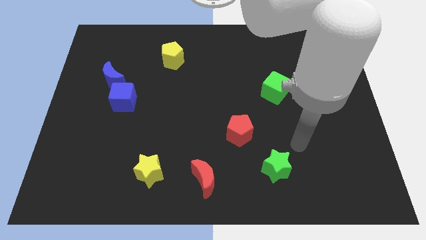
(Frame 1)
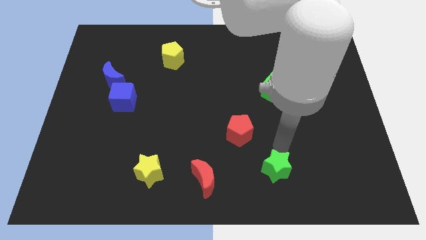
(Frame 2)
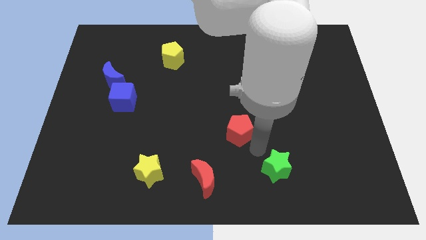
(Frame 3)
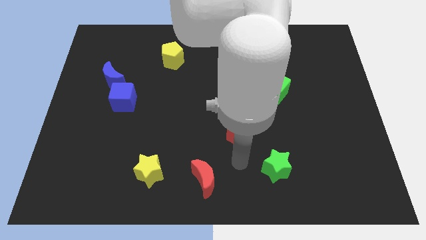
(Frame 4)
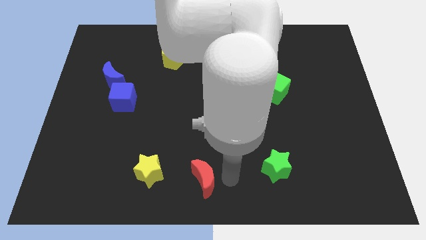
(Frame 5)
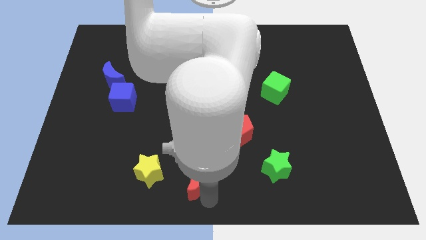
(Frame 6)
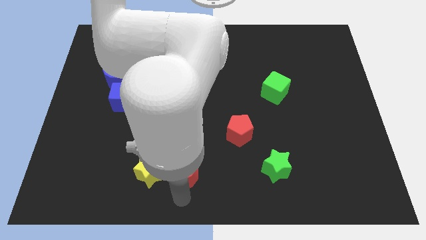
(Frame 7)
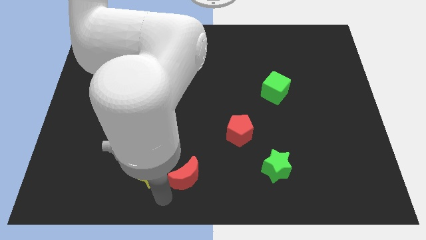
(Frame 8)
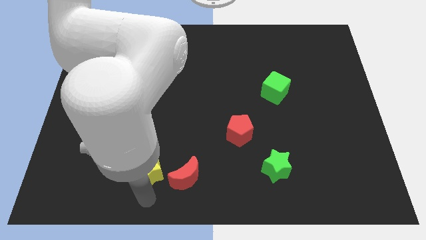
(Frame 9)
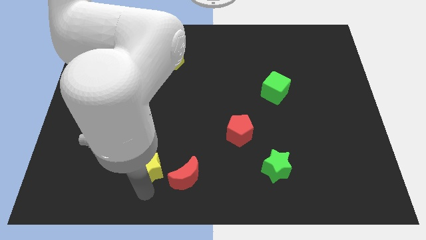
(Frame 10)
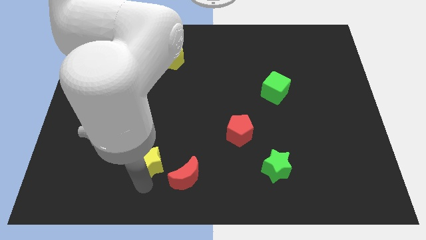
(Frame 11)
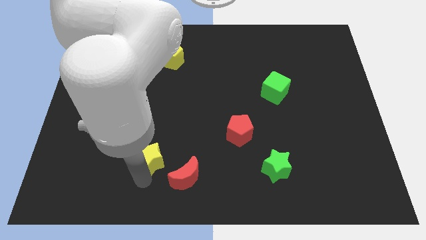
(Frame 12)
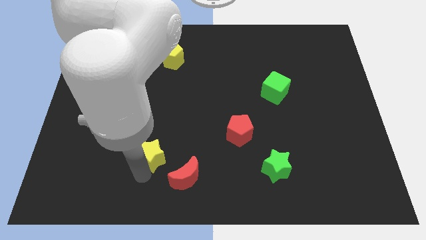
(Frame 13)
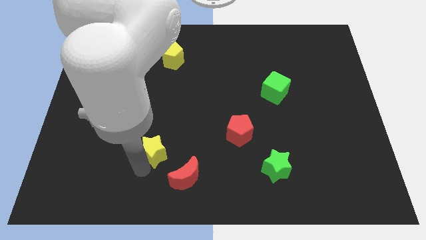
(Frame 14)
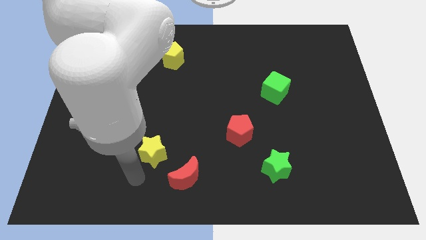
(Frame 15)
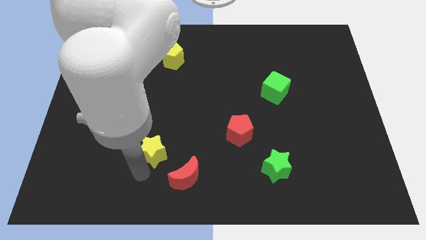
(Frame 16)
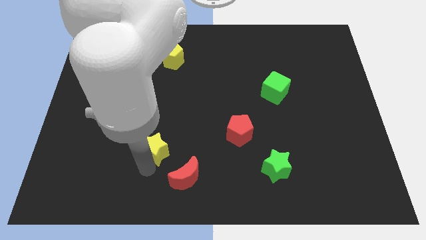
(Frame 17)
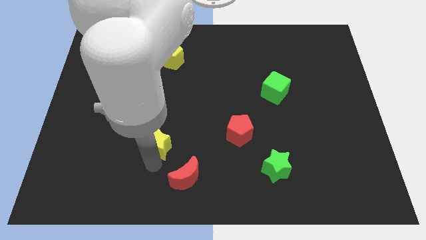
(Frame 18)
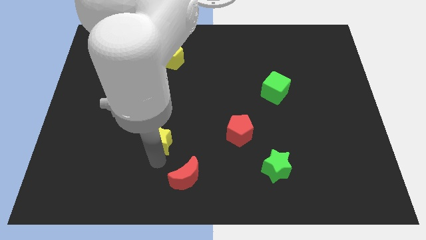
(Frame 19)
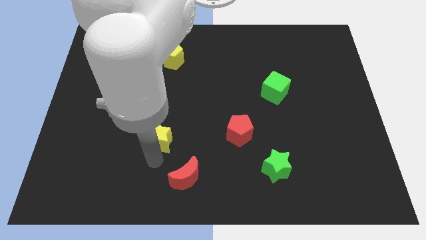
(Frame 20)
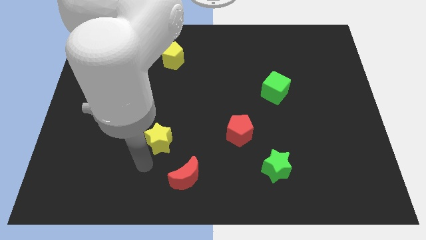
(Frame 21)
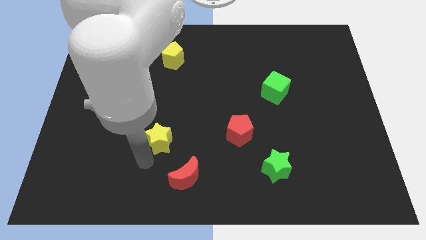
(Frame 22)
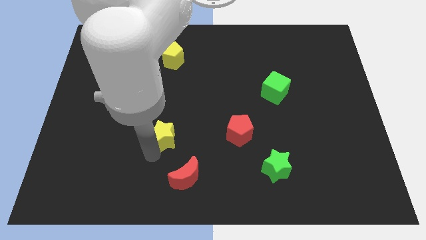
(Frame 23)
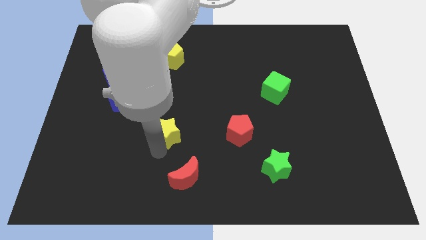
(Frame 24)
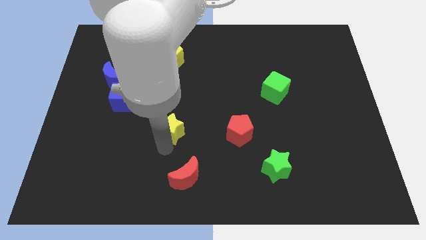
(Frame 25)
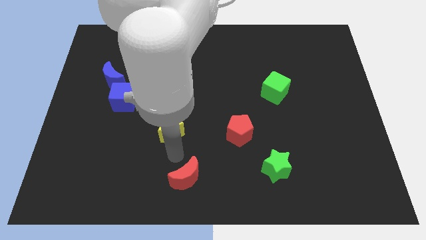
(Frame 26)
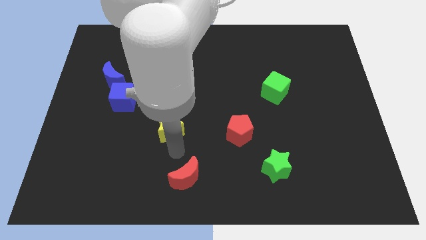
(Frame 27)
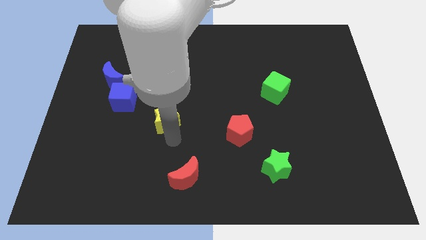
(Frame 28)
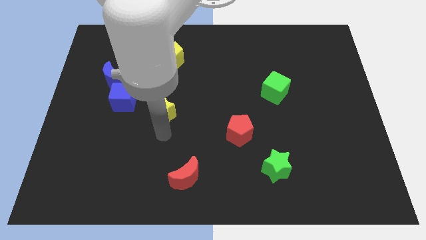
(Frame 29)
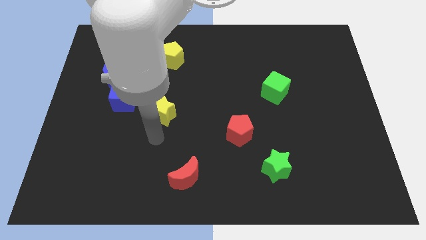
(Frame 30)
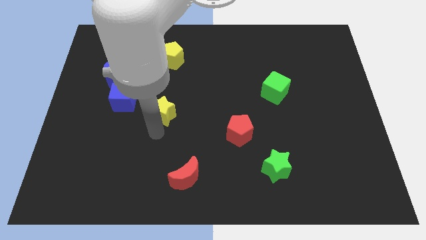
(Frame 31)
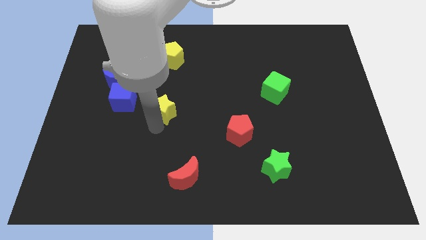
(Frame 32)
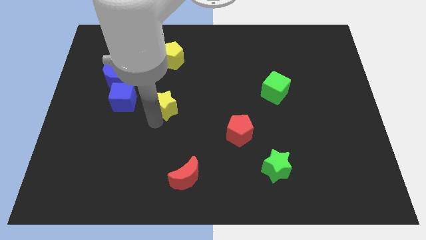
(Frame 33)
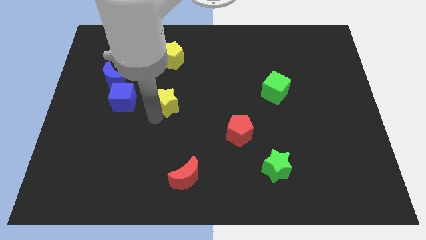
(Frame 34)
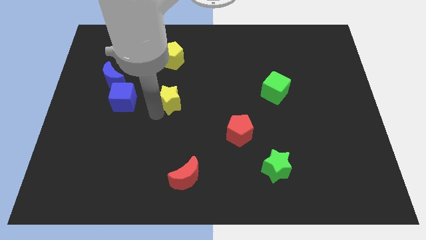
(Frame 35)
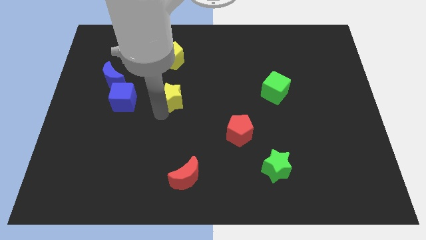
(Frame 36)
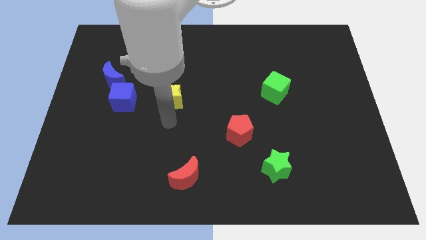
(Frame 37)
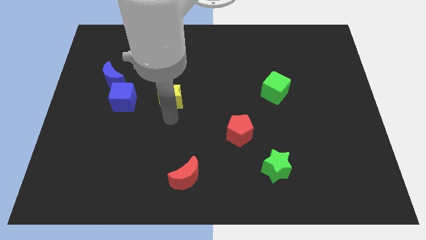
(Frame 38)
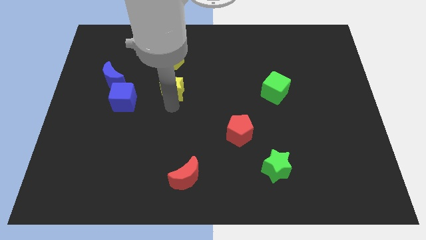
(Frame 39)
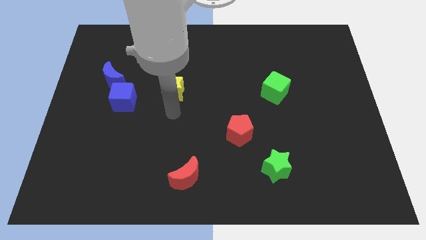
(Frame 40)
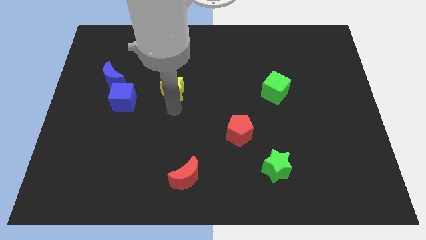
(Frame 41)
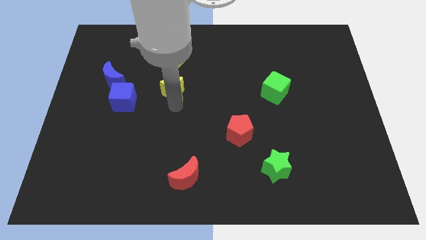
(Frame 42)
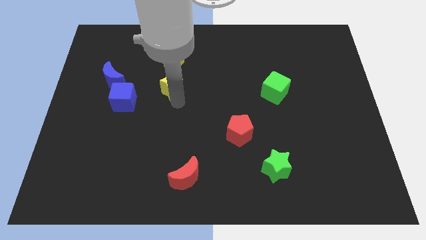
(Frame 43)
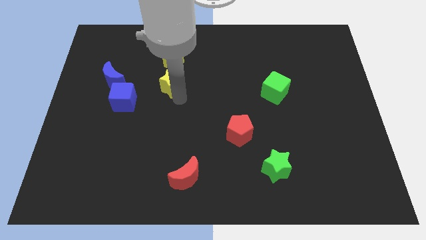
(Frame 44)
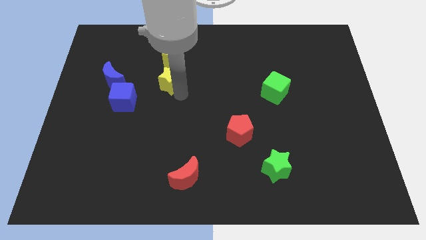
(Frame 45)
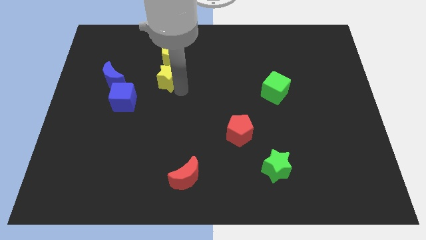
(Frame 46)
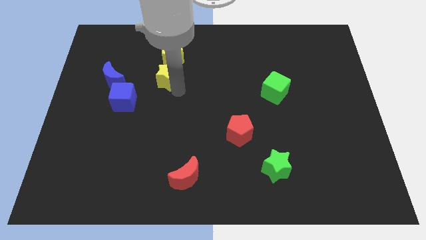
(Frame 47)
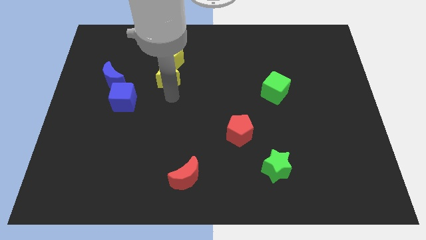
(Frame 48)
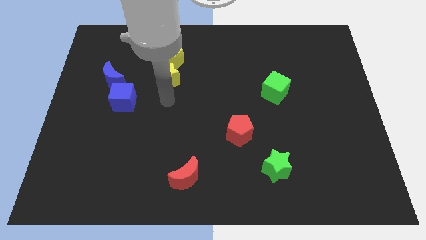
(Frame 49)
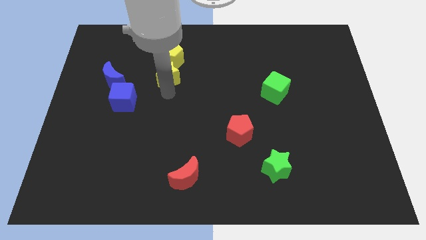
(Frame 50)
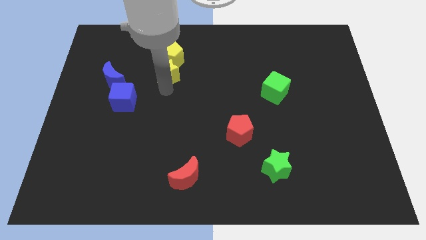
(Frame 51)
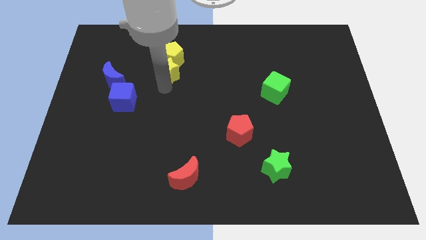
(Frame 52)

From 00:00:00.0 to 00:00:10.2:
move the yellow star next to the yellow pentagon

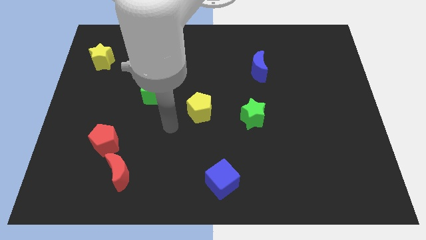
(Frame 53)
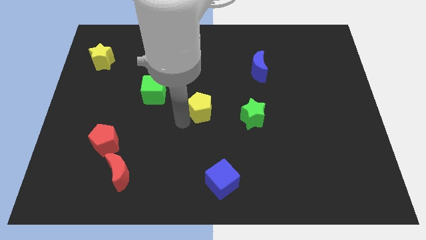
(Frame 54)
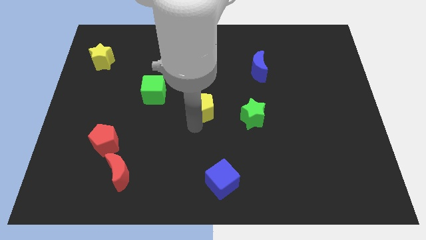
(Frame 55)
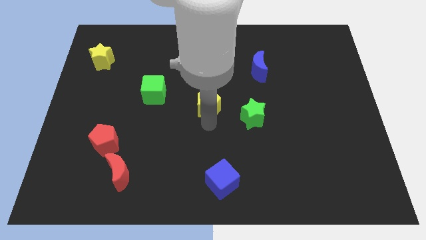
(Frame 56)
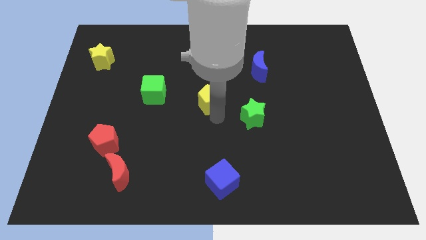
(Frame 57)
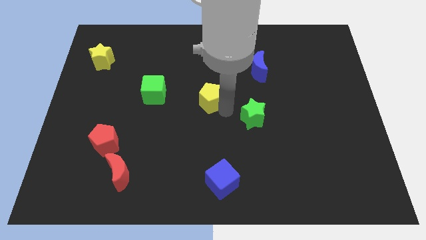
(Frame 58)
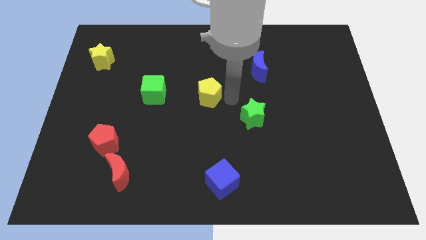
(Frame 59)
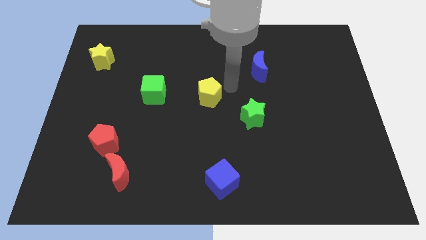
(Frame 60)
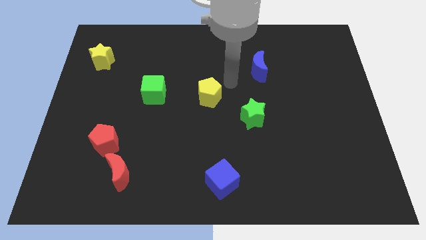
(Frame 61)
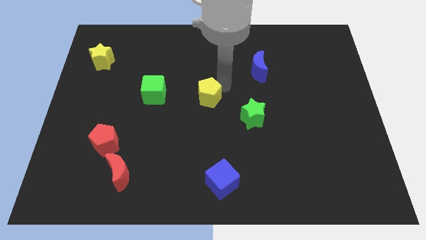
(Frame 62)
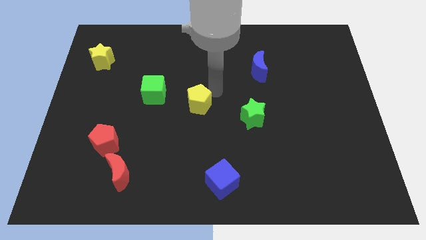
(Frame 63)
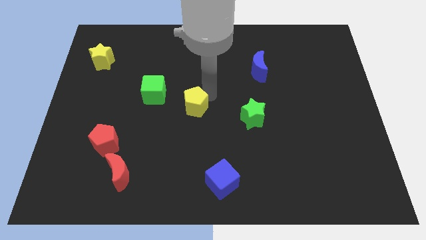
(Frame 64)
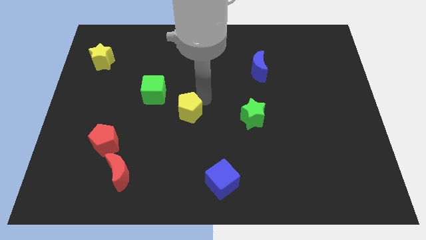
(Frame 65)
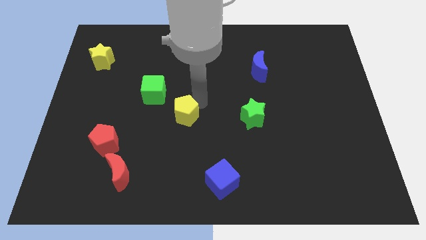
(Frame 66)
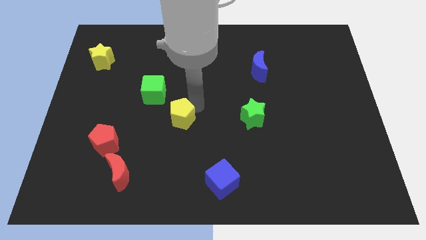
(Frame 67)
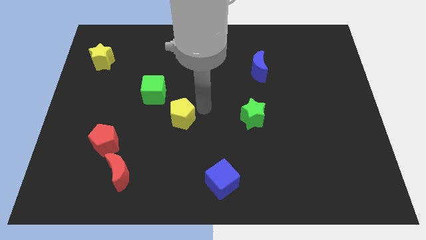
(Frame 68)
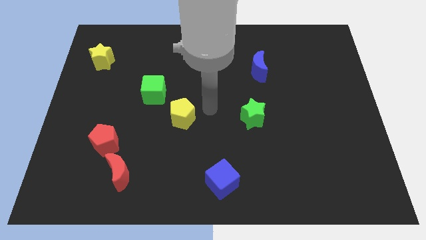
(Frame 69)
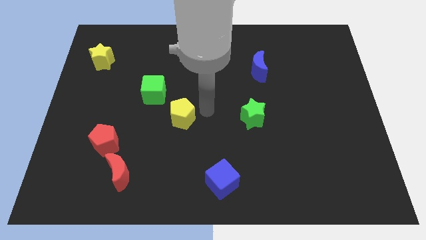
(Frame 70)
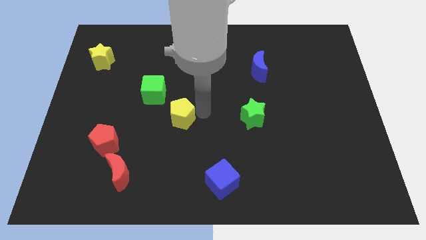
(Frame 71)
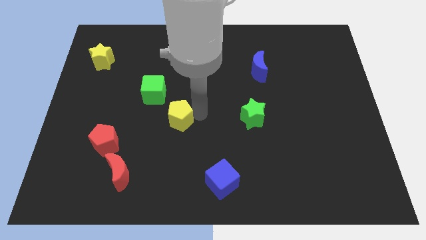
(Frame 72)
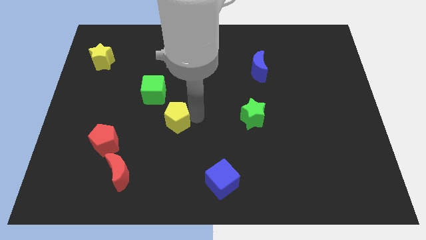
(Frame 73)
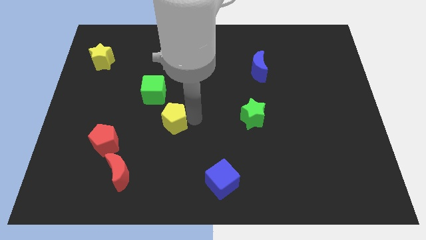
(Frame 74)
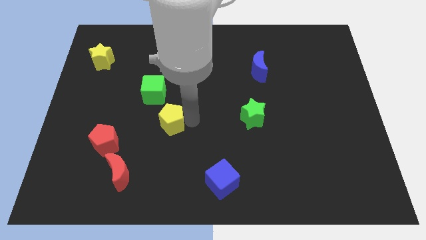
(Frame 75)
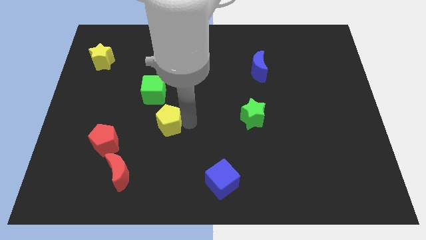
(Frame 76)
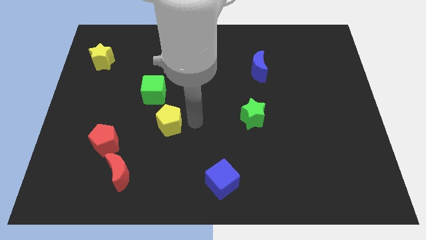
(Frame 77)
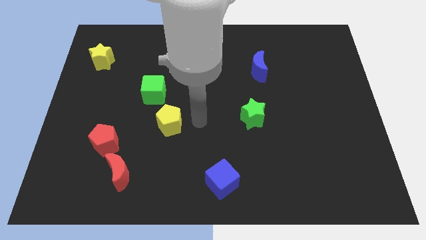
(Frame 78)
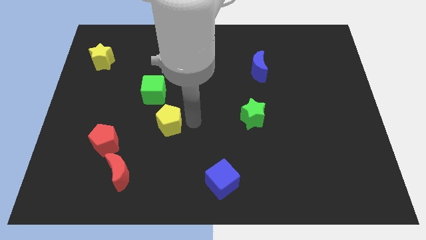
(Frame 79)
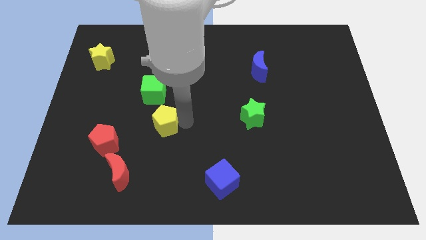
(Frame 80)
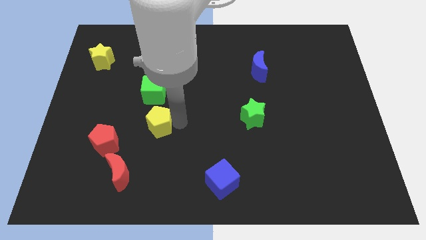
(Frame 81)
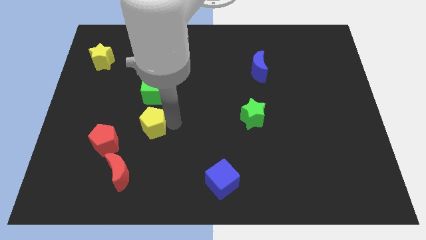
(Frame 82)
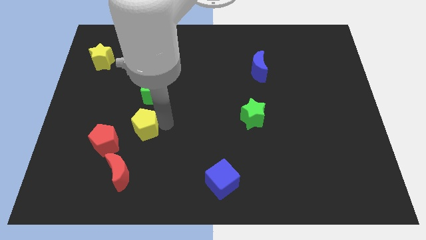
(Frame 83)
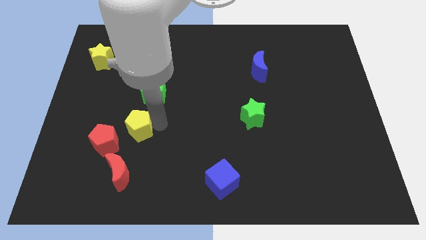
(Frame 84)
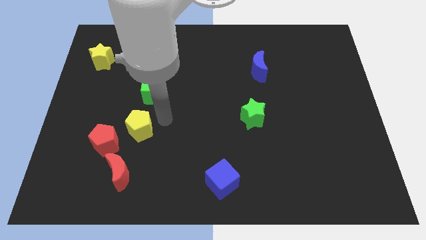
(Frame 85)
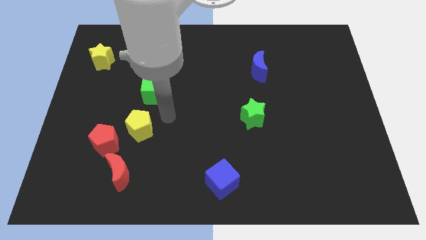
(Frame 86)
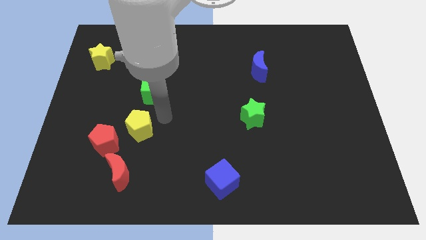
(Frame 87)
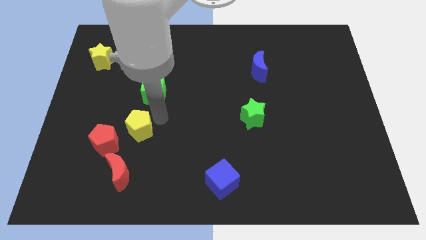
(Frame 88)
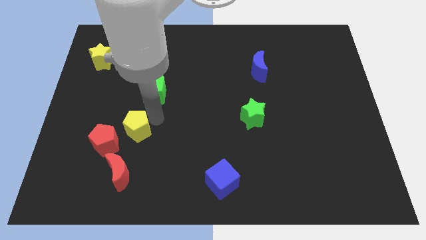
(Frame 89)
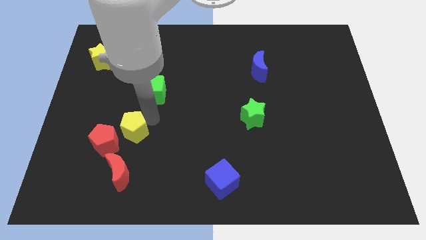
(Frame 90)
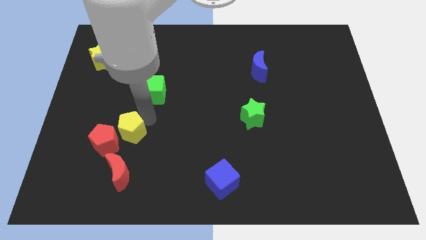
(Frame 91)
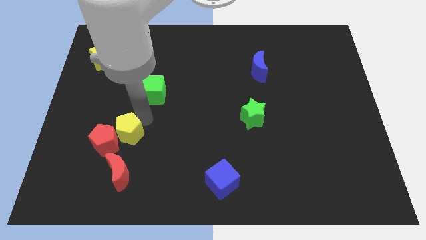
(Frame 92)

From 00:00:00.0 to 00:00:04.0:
slide the yellow pentagon to the red pentagon
